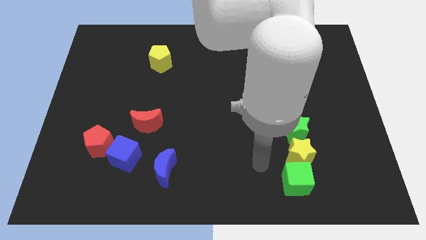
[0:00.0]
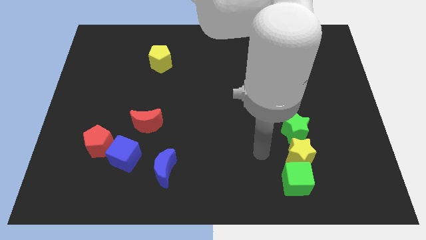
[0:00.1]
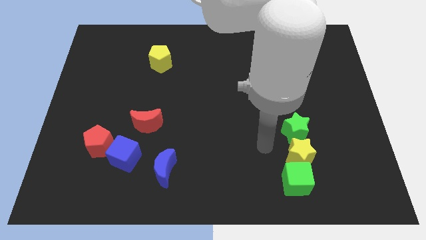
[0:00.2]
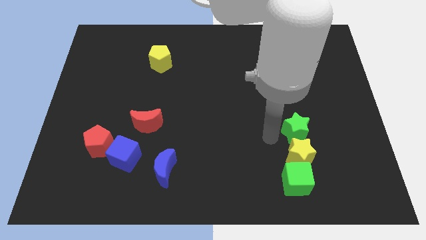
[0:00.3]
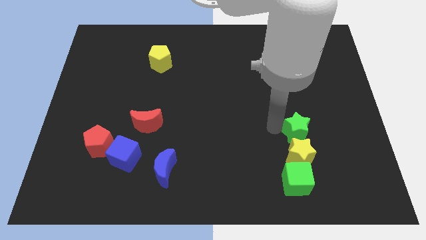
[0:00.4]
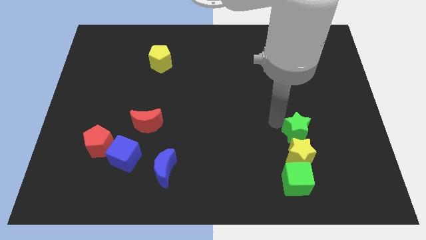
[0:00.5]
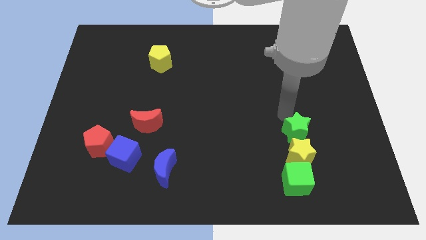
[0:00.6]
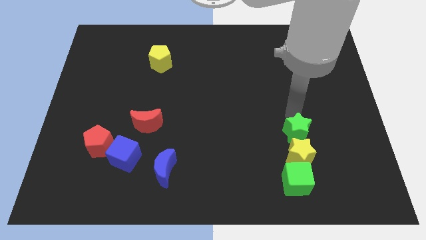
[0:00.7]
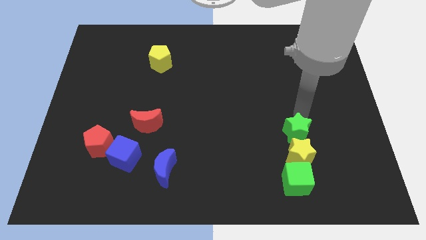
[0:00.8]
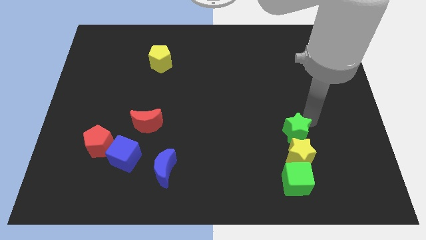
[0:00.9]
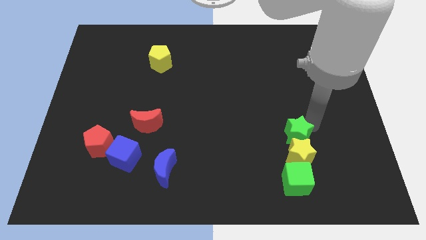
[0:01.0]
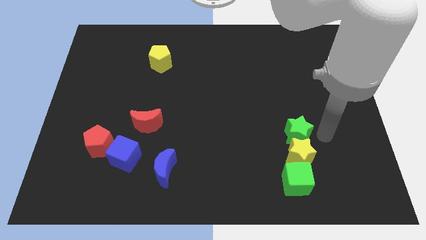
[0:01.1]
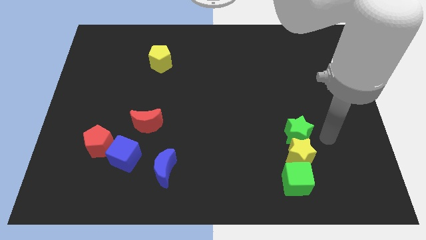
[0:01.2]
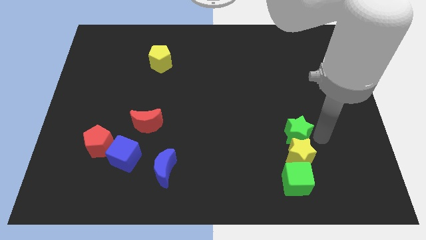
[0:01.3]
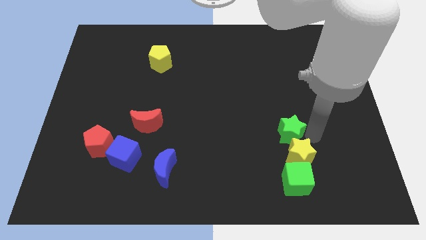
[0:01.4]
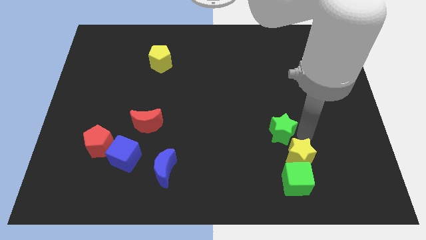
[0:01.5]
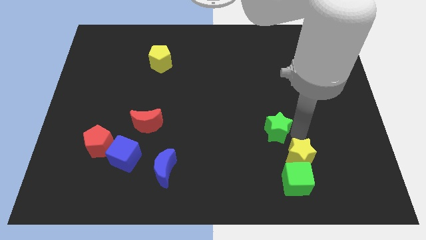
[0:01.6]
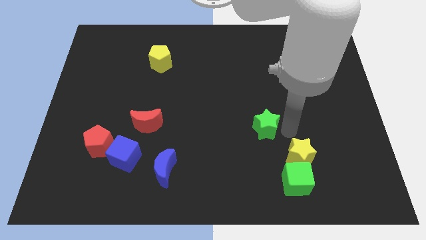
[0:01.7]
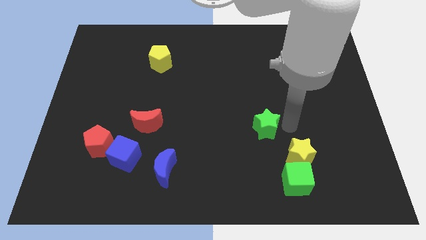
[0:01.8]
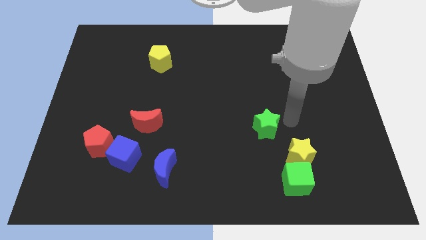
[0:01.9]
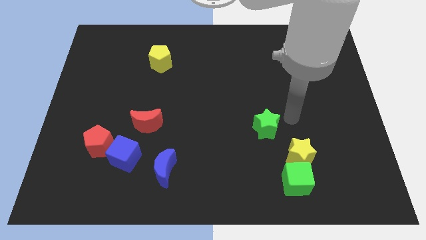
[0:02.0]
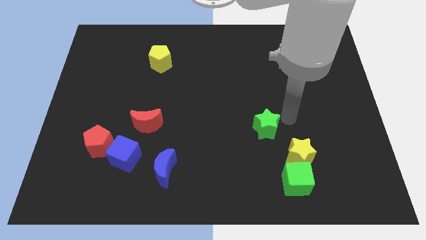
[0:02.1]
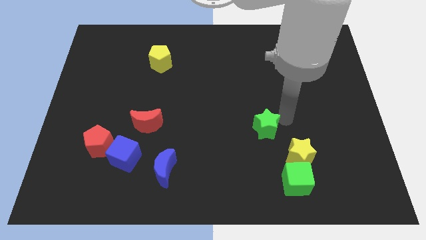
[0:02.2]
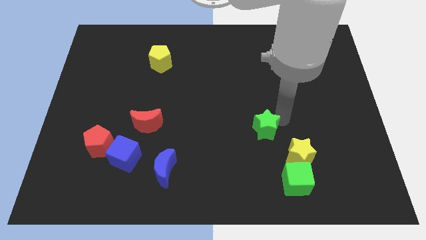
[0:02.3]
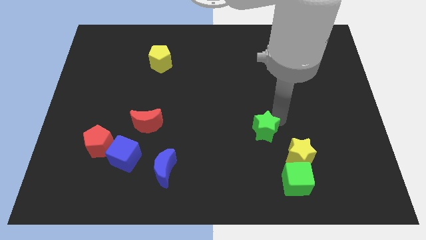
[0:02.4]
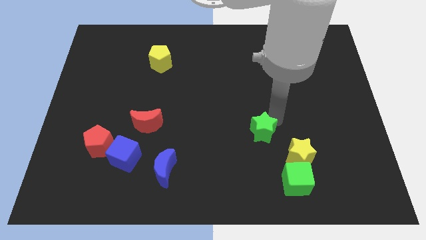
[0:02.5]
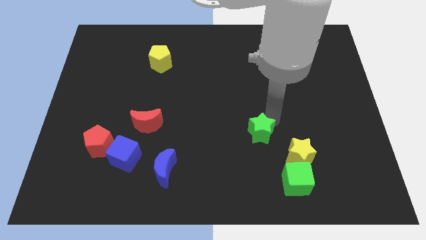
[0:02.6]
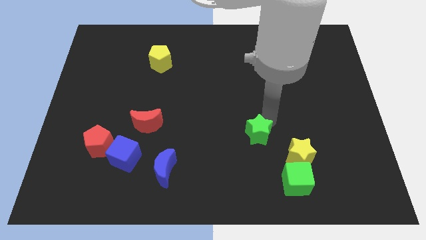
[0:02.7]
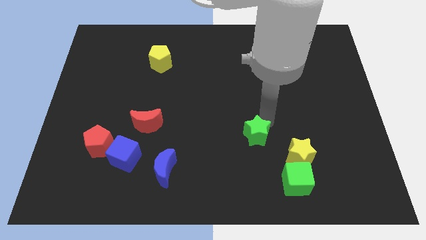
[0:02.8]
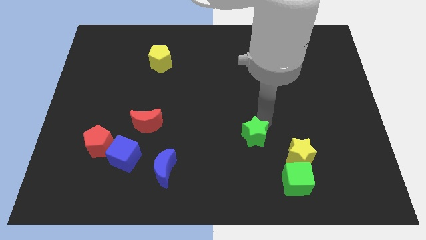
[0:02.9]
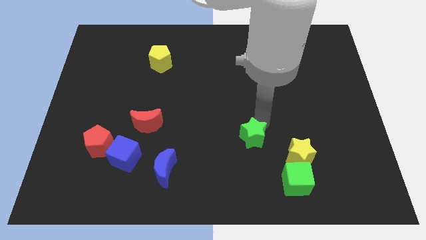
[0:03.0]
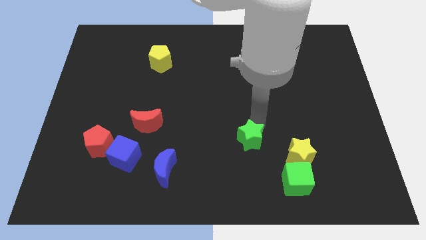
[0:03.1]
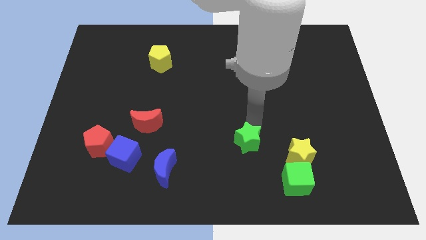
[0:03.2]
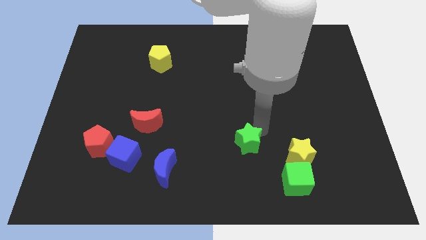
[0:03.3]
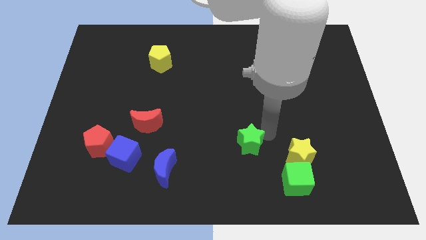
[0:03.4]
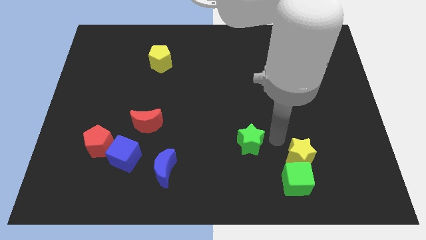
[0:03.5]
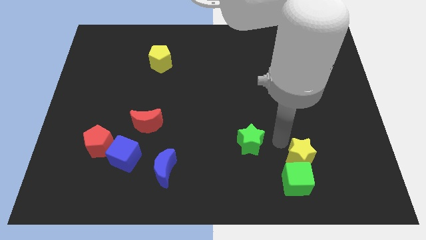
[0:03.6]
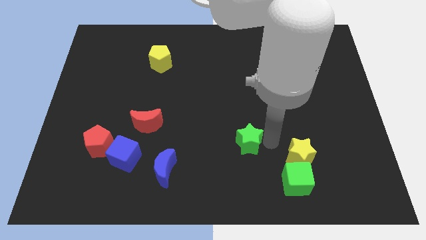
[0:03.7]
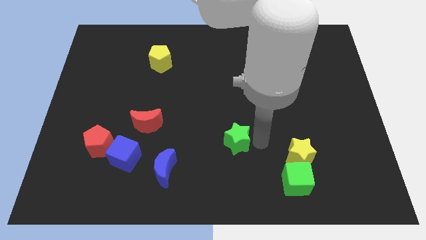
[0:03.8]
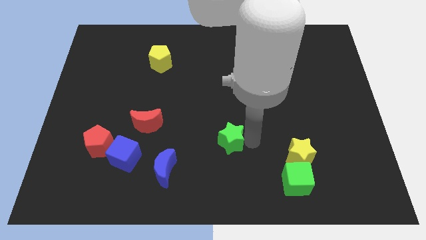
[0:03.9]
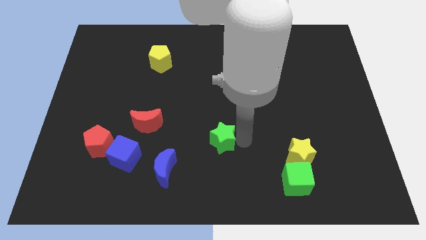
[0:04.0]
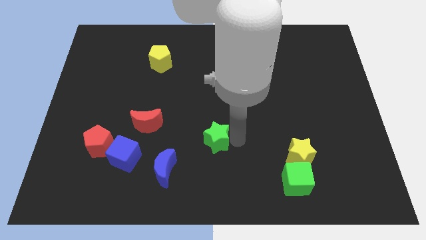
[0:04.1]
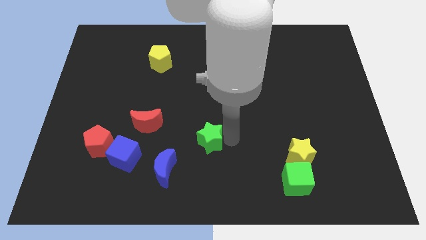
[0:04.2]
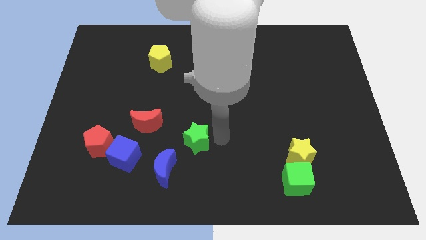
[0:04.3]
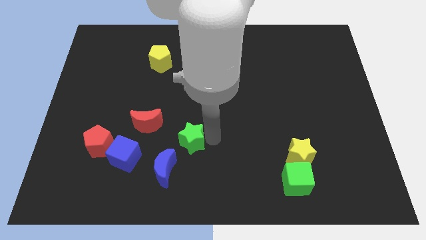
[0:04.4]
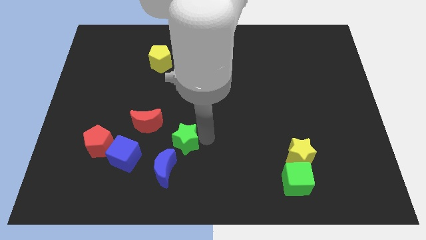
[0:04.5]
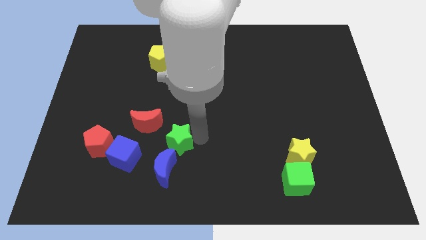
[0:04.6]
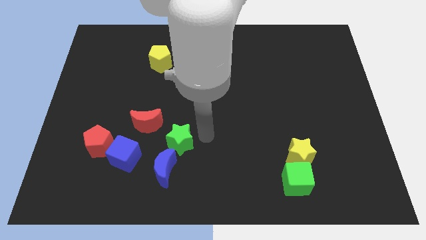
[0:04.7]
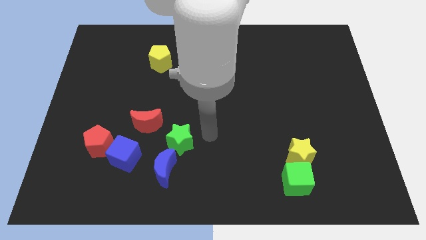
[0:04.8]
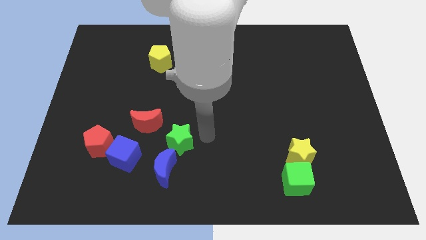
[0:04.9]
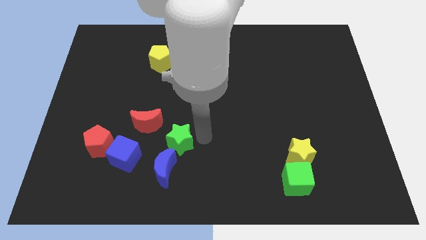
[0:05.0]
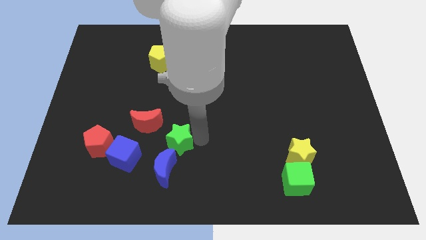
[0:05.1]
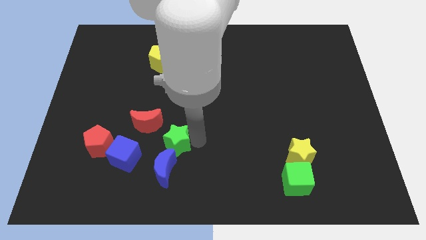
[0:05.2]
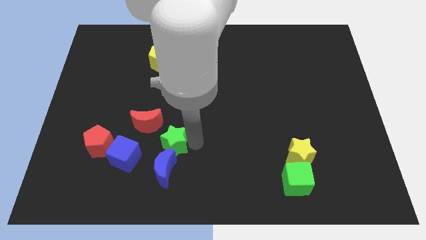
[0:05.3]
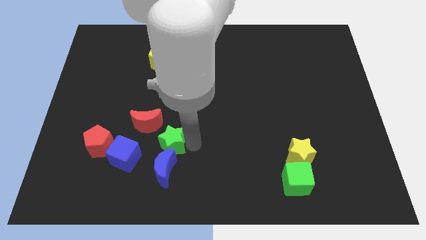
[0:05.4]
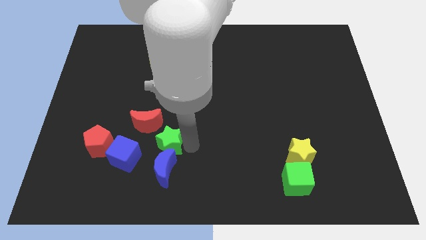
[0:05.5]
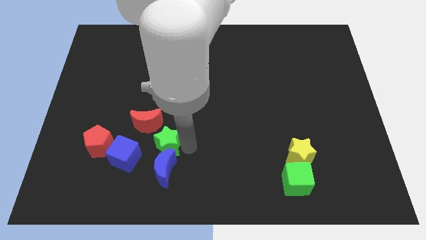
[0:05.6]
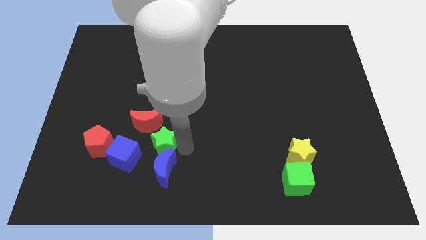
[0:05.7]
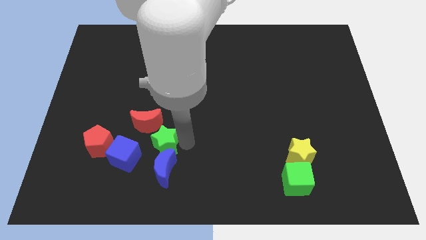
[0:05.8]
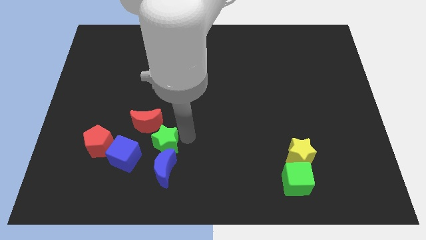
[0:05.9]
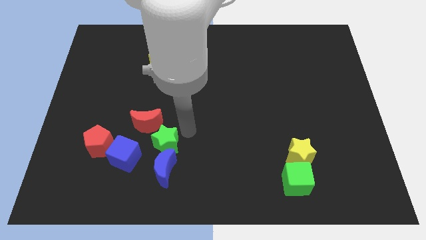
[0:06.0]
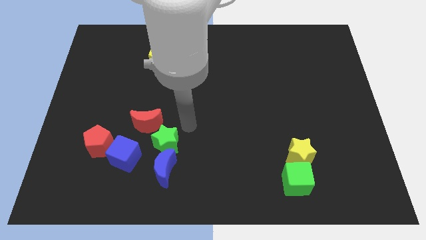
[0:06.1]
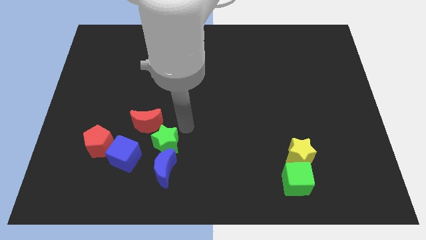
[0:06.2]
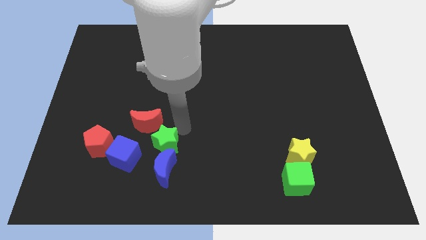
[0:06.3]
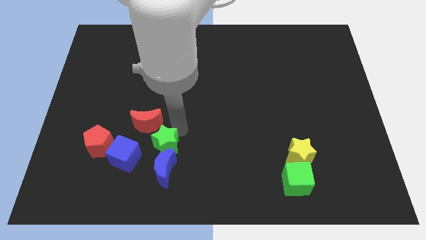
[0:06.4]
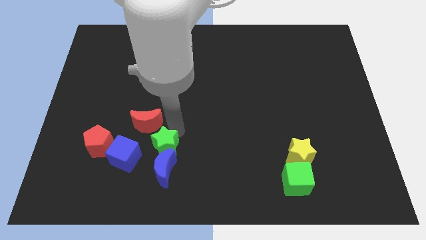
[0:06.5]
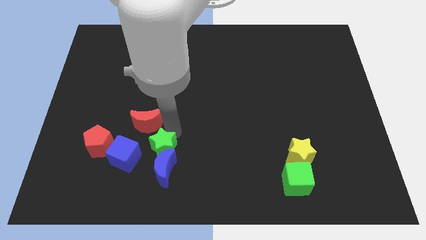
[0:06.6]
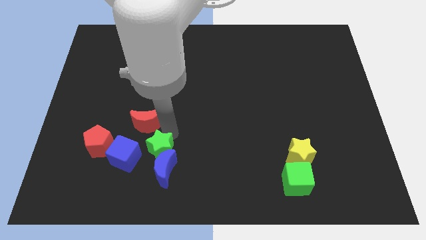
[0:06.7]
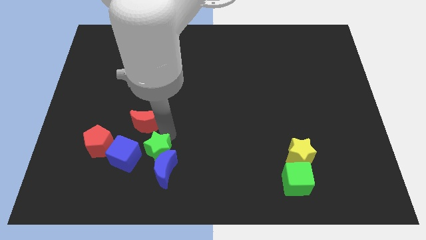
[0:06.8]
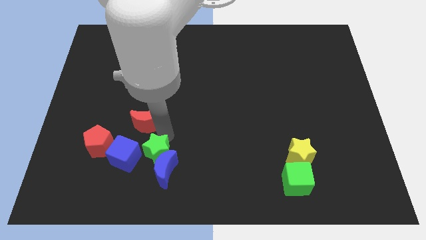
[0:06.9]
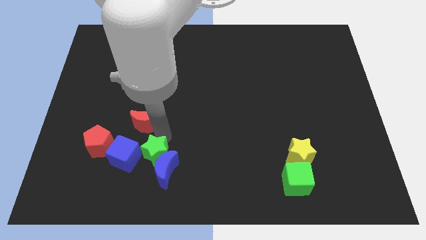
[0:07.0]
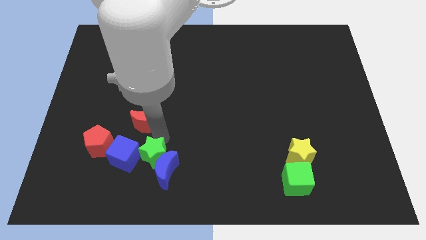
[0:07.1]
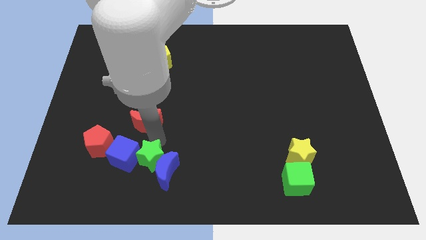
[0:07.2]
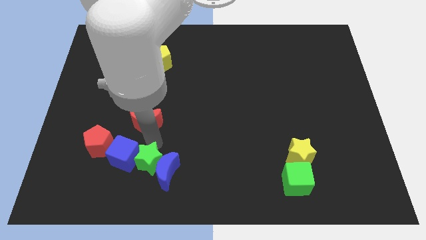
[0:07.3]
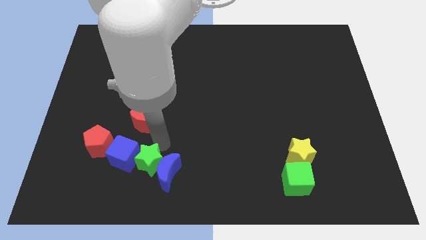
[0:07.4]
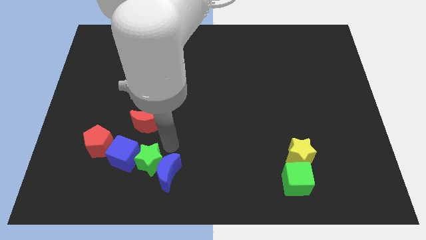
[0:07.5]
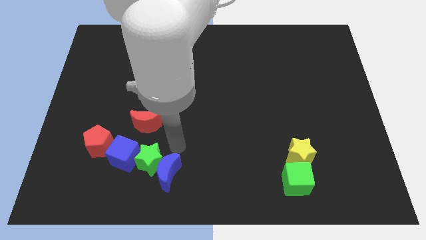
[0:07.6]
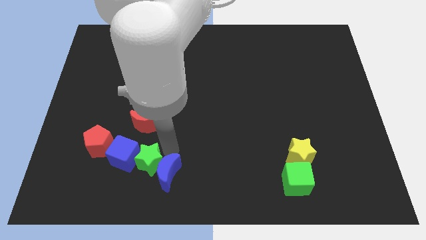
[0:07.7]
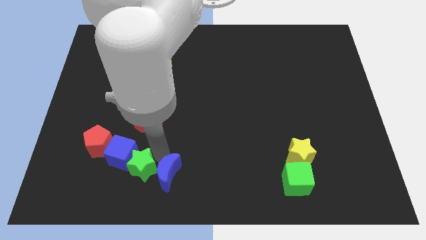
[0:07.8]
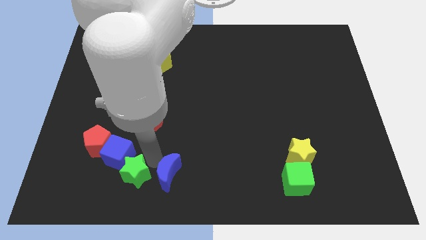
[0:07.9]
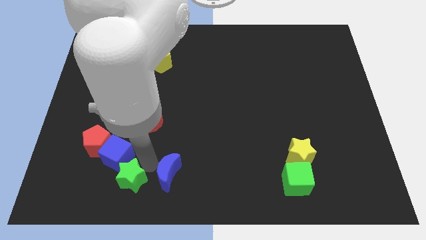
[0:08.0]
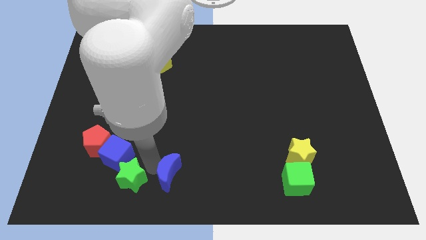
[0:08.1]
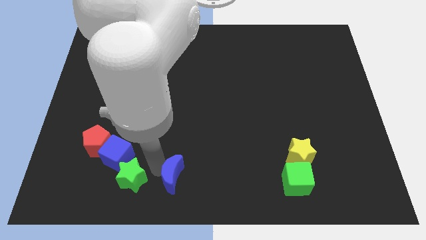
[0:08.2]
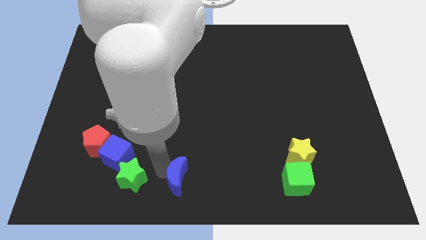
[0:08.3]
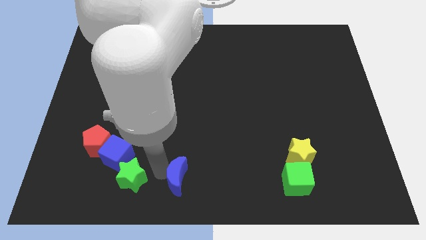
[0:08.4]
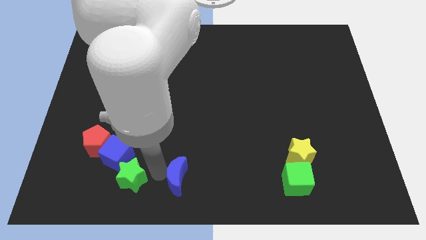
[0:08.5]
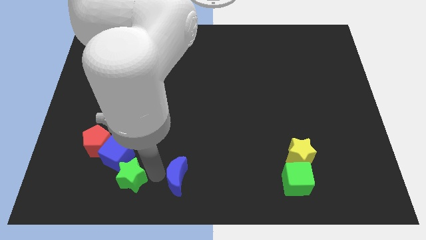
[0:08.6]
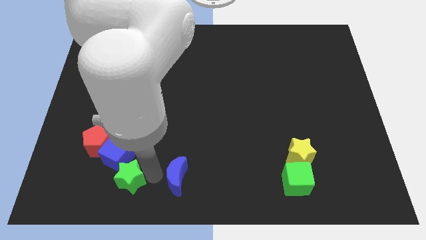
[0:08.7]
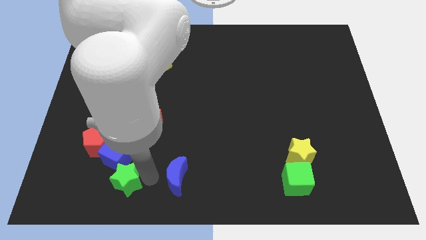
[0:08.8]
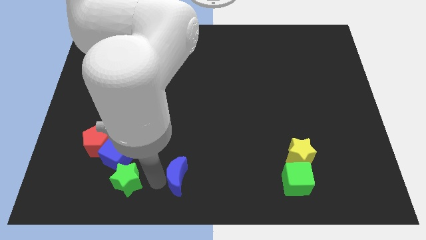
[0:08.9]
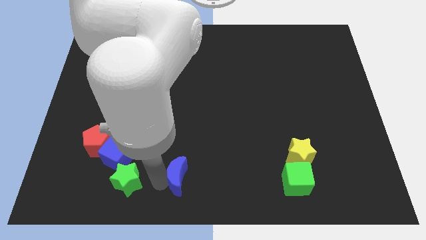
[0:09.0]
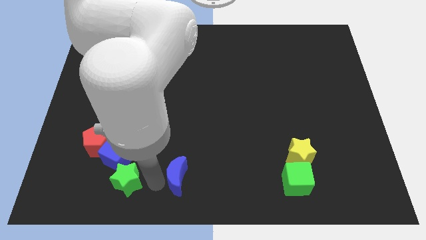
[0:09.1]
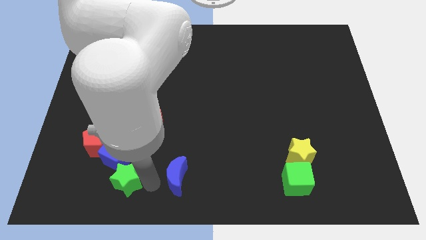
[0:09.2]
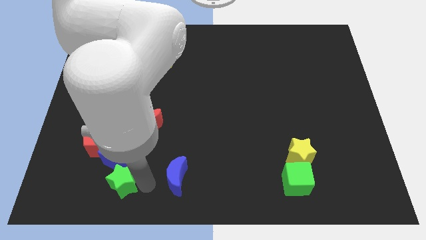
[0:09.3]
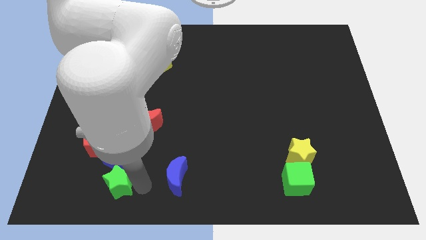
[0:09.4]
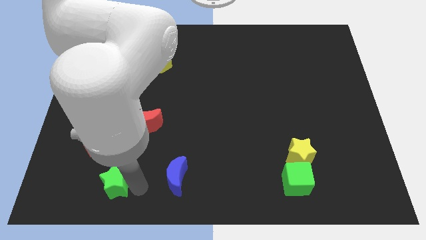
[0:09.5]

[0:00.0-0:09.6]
push the green star to the bottom left of the blue cube
